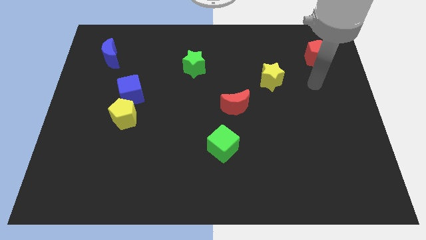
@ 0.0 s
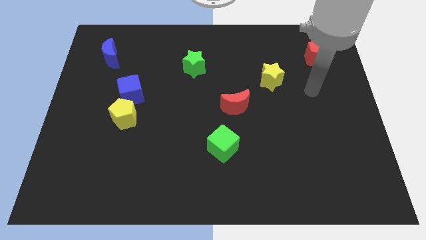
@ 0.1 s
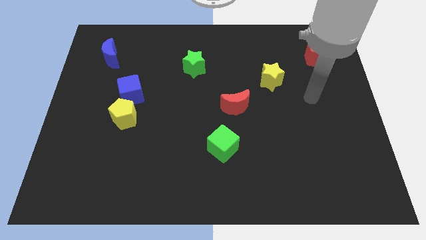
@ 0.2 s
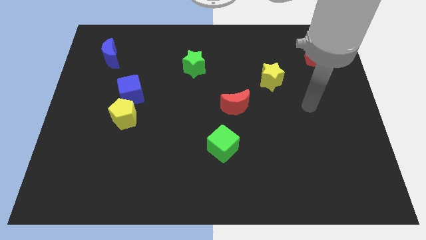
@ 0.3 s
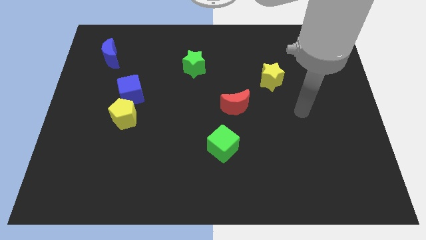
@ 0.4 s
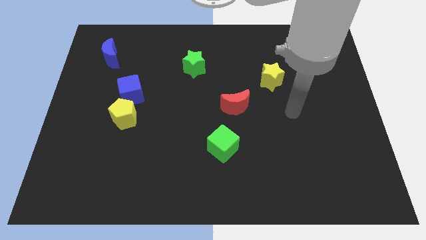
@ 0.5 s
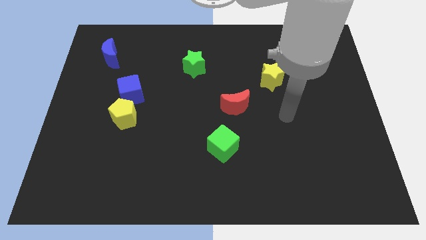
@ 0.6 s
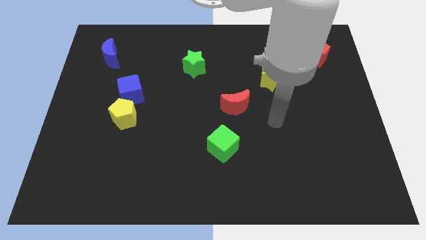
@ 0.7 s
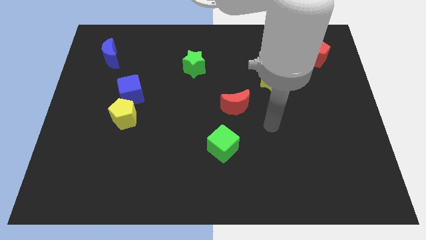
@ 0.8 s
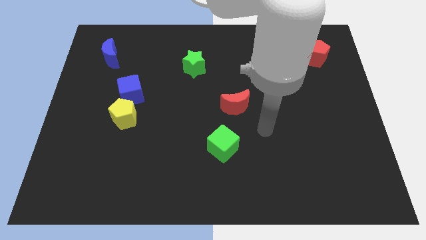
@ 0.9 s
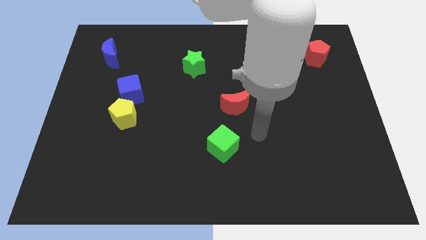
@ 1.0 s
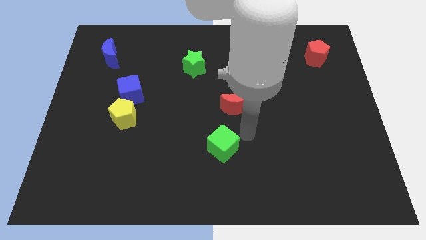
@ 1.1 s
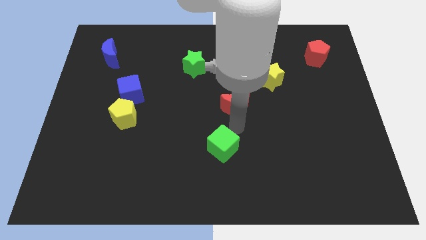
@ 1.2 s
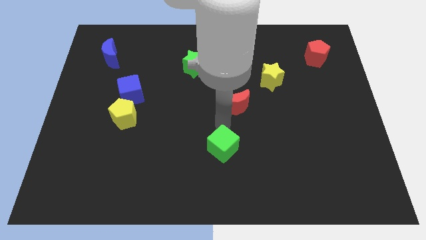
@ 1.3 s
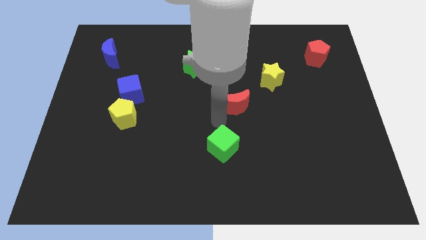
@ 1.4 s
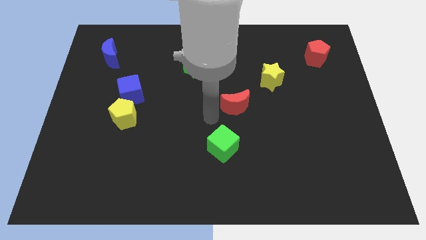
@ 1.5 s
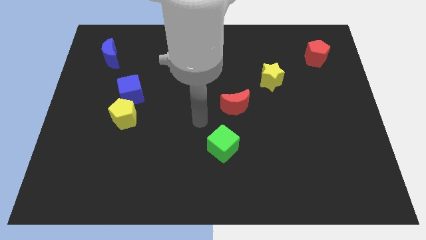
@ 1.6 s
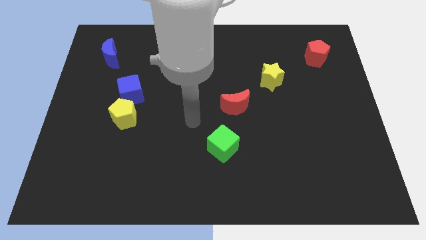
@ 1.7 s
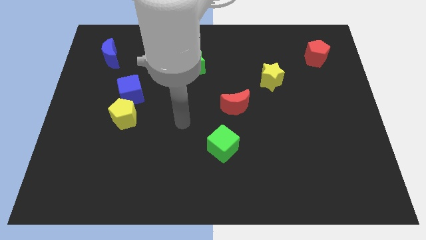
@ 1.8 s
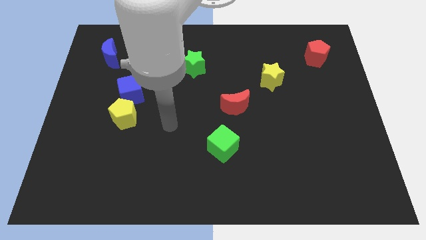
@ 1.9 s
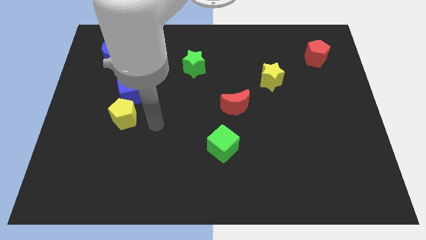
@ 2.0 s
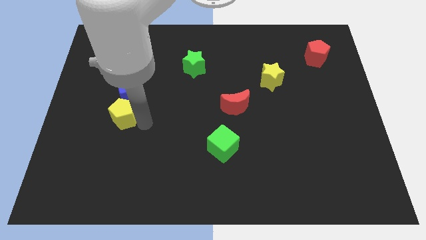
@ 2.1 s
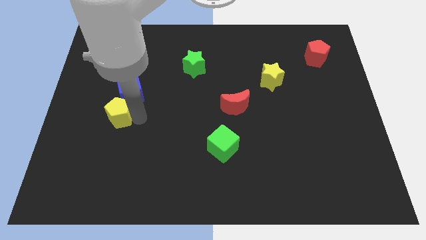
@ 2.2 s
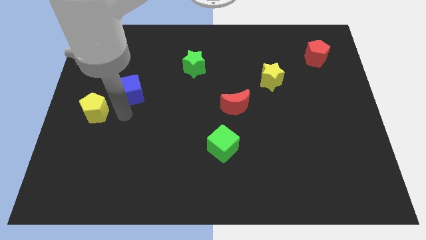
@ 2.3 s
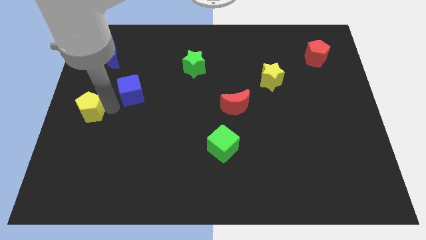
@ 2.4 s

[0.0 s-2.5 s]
pull the blue cube apart from the yellow pentagon

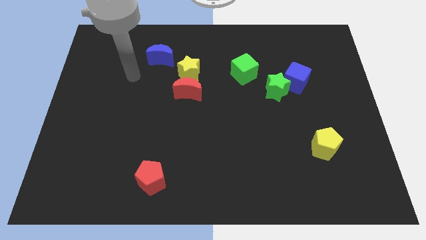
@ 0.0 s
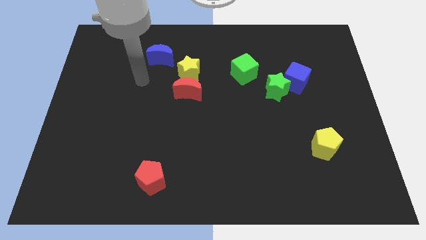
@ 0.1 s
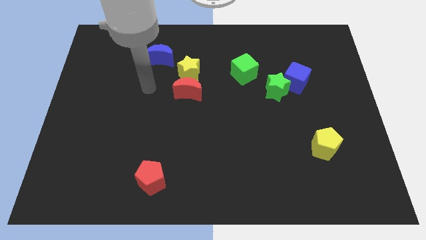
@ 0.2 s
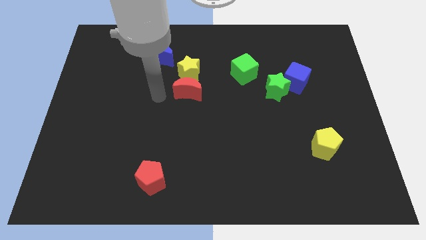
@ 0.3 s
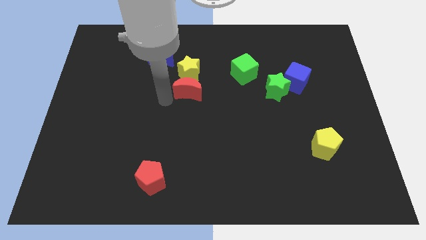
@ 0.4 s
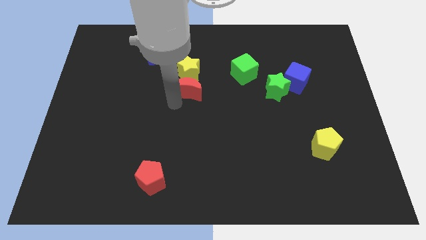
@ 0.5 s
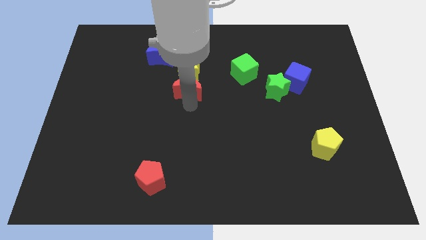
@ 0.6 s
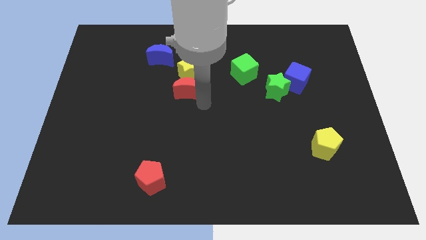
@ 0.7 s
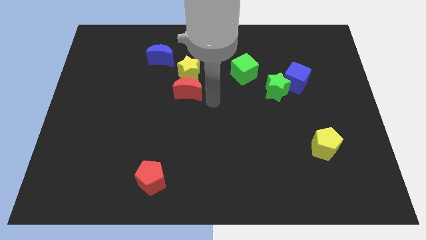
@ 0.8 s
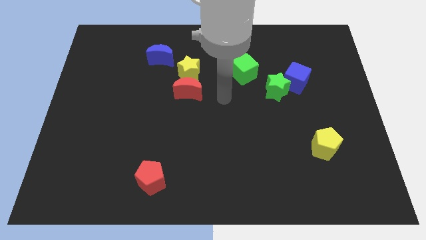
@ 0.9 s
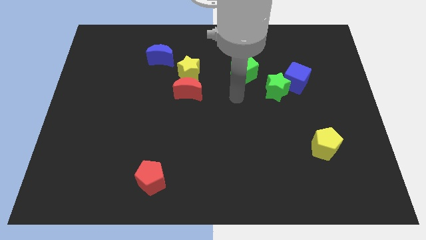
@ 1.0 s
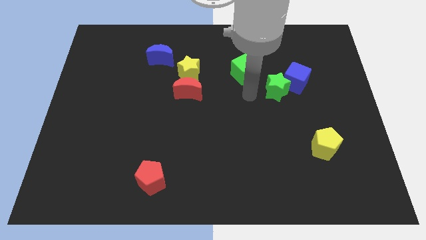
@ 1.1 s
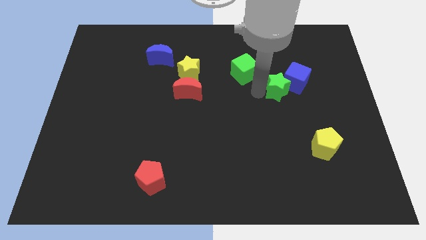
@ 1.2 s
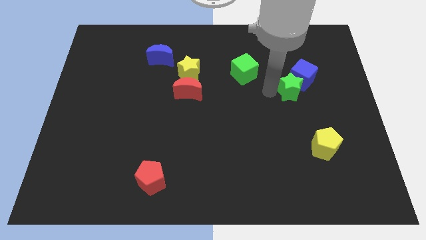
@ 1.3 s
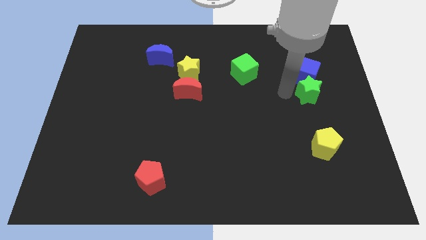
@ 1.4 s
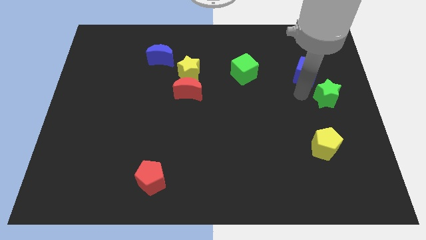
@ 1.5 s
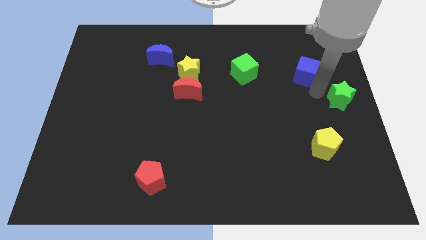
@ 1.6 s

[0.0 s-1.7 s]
pull the blue cube apart from the green star

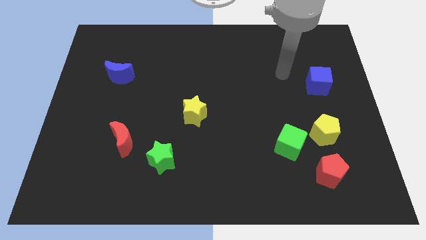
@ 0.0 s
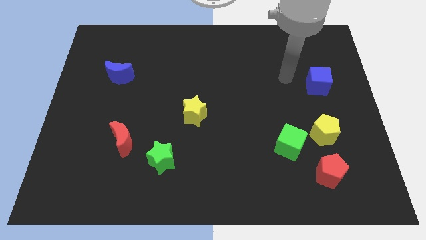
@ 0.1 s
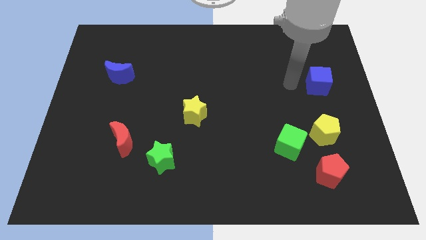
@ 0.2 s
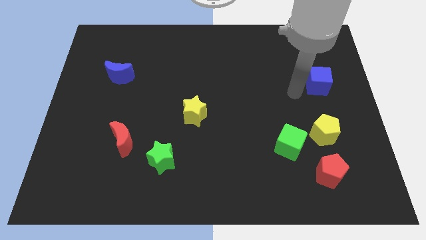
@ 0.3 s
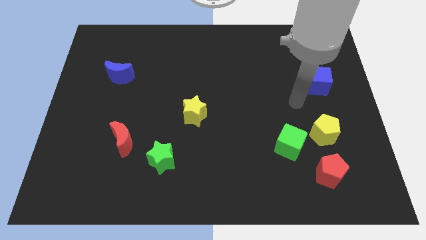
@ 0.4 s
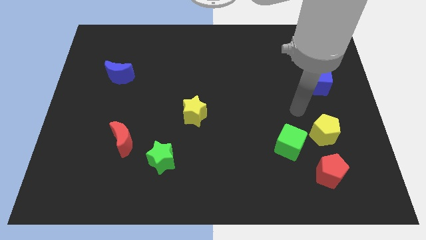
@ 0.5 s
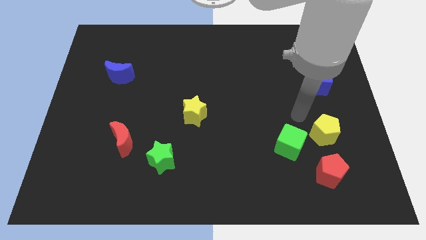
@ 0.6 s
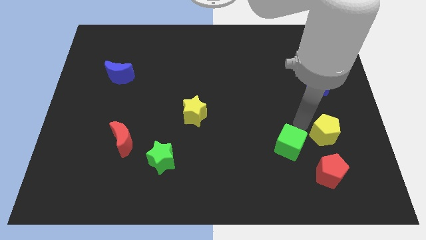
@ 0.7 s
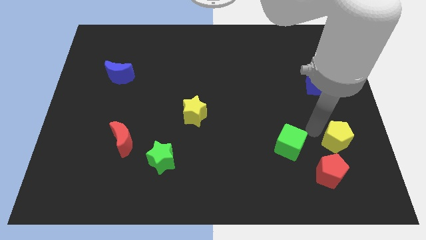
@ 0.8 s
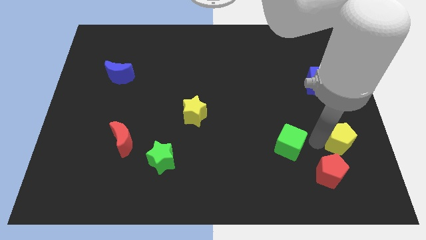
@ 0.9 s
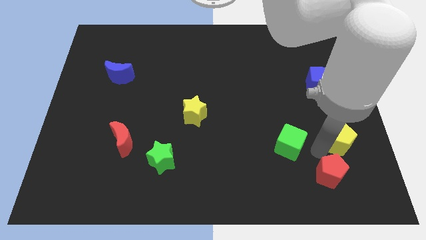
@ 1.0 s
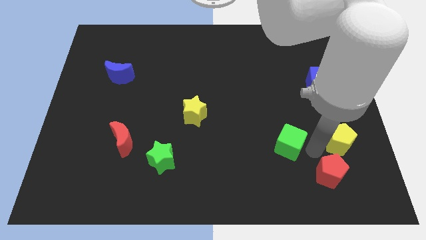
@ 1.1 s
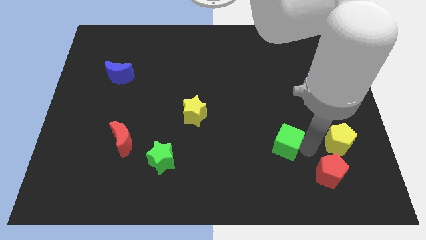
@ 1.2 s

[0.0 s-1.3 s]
separate the green cube from the yellow pentagon and red pentagon

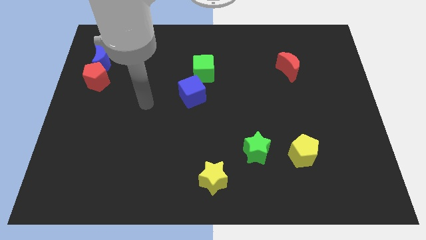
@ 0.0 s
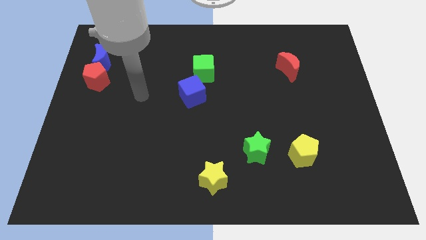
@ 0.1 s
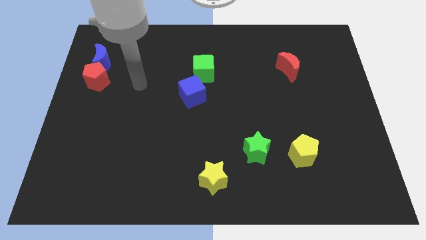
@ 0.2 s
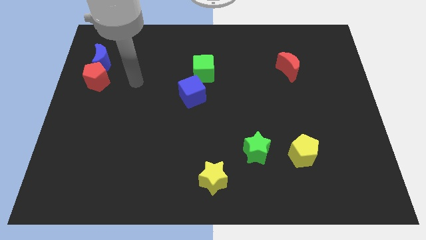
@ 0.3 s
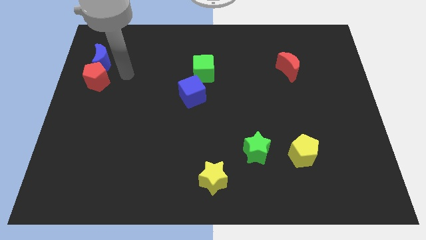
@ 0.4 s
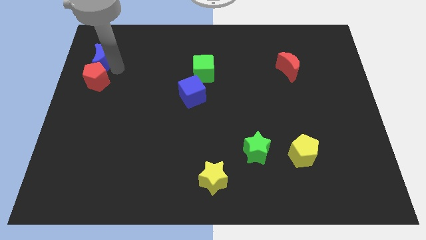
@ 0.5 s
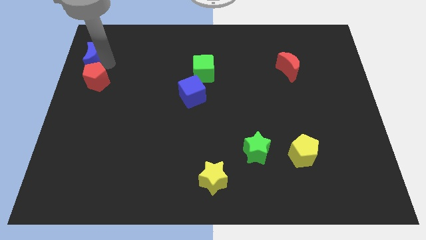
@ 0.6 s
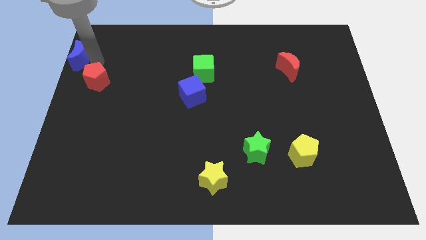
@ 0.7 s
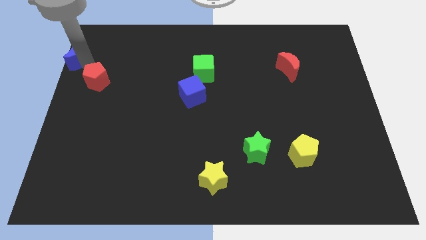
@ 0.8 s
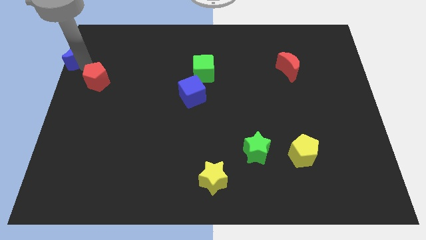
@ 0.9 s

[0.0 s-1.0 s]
separate the red pentagon from the blue moon

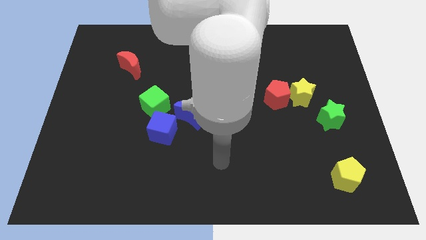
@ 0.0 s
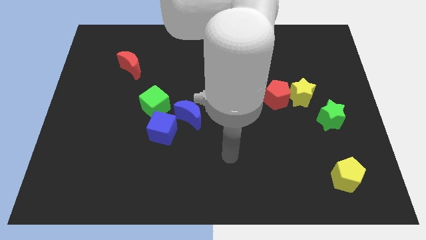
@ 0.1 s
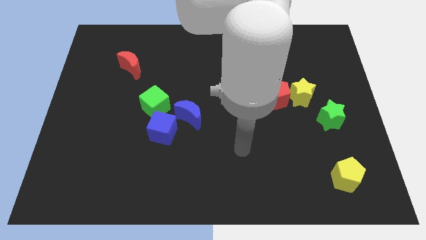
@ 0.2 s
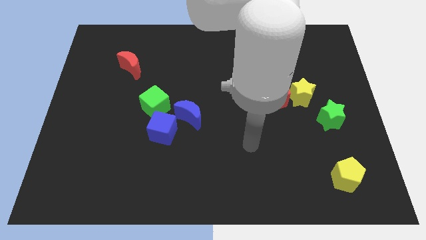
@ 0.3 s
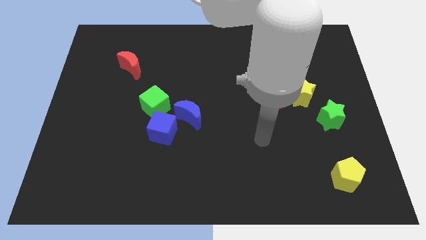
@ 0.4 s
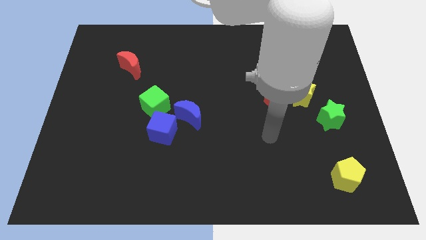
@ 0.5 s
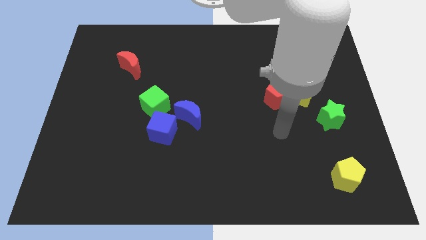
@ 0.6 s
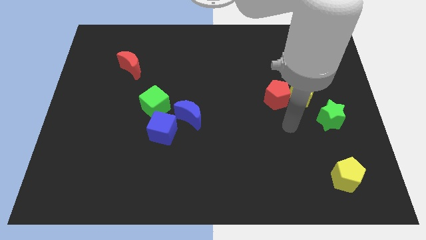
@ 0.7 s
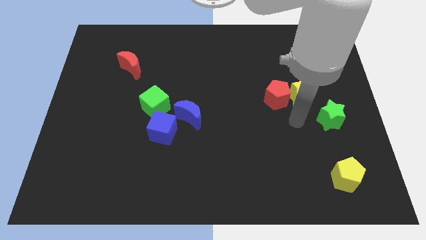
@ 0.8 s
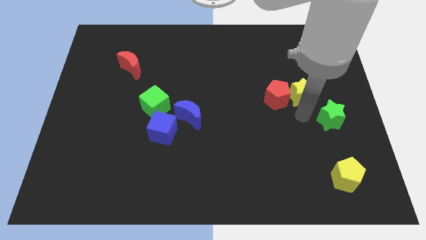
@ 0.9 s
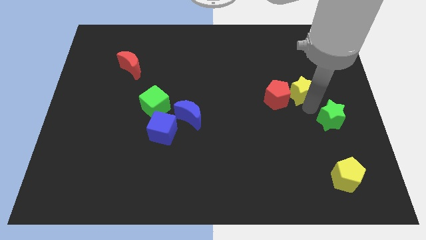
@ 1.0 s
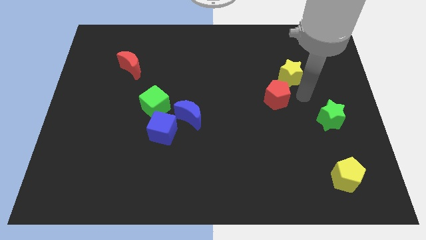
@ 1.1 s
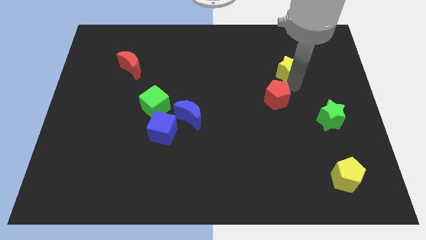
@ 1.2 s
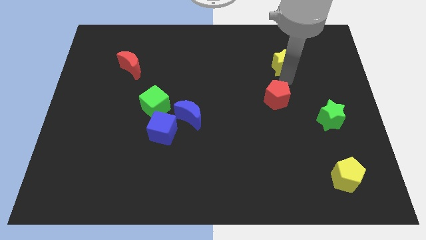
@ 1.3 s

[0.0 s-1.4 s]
pull the red pentagon apart from the yellow star

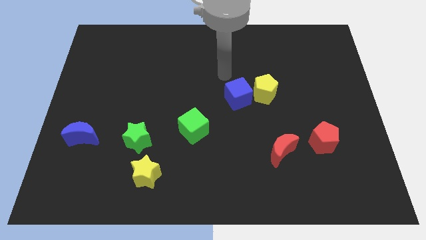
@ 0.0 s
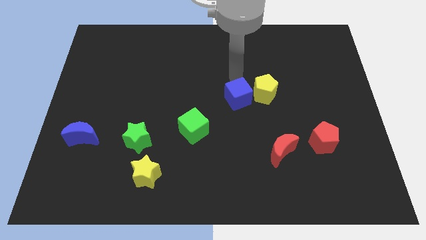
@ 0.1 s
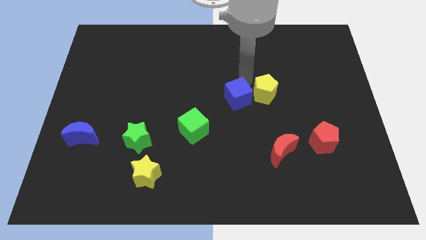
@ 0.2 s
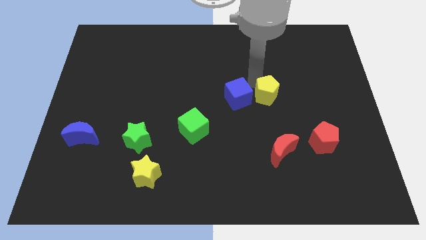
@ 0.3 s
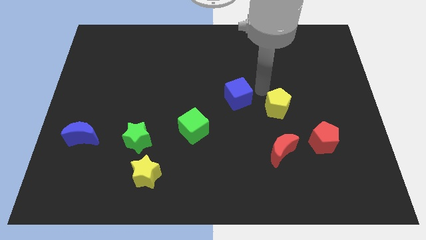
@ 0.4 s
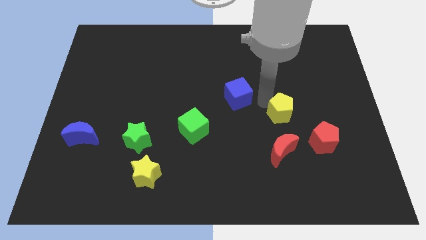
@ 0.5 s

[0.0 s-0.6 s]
move the blue cube away from the yellow pentagon

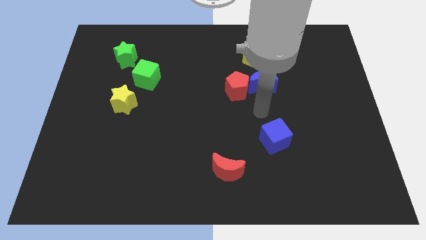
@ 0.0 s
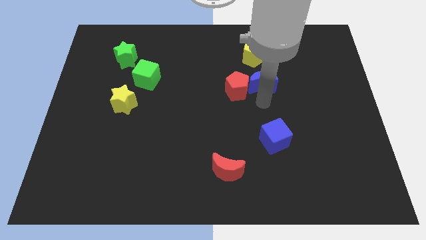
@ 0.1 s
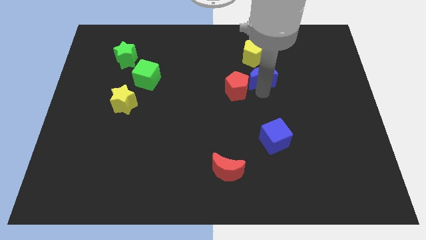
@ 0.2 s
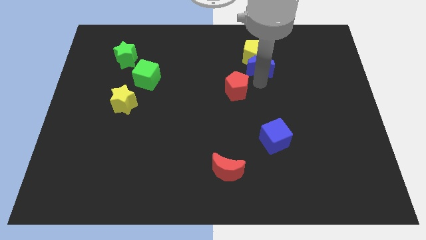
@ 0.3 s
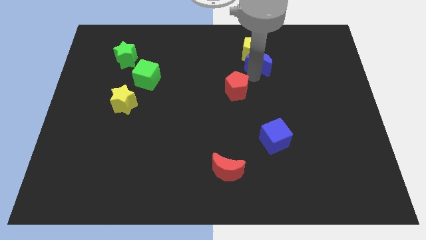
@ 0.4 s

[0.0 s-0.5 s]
move the red pentagon away from the blue moon

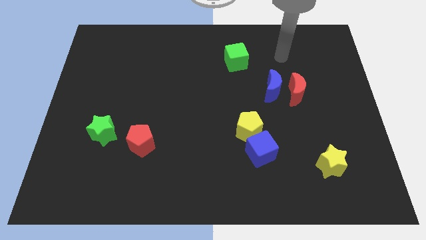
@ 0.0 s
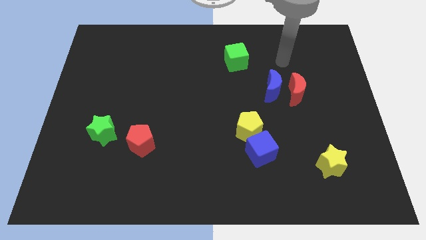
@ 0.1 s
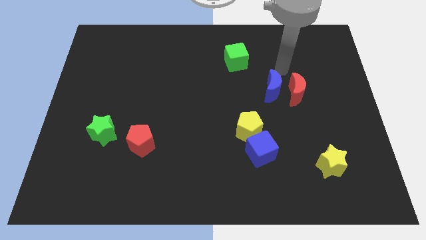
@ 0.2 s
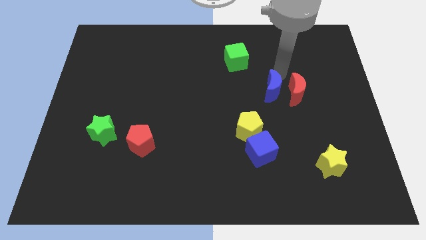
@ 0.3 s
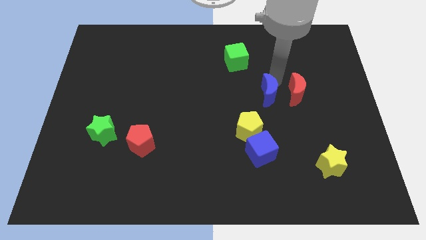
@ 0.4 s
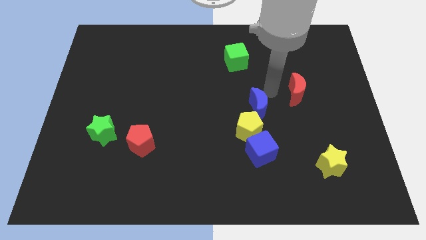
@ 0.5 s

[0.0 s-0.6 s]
pull the red moon apart from the blue moon
